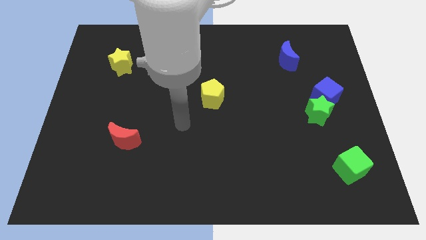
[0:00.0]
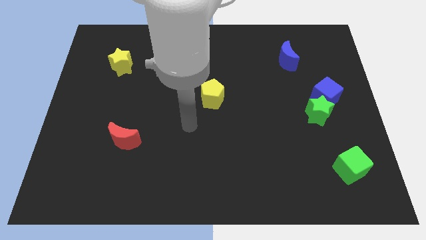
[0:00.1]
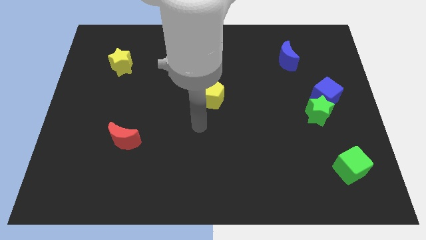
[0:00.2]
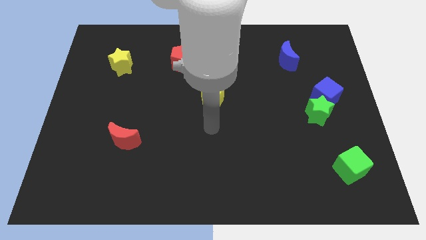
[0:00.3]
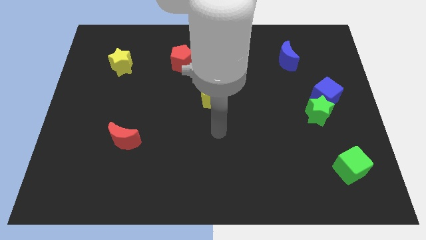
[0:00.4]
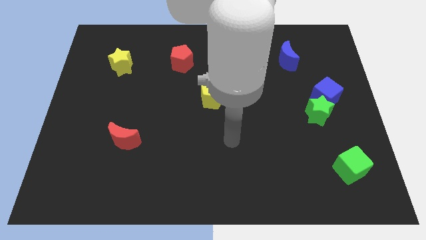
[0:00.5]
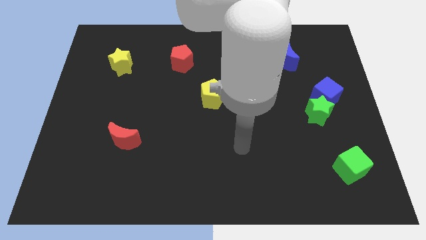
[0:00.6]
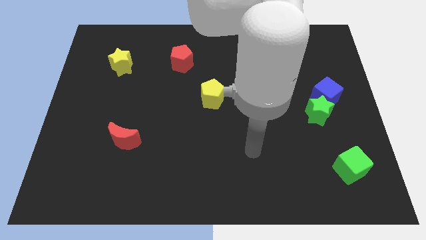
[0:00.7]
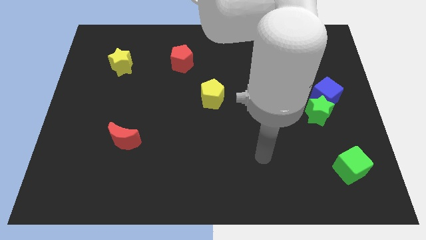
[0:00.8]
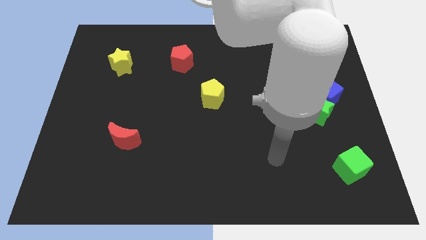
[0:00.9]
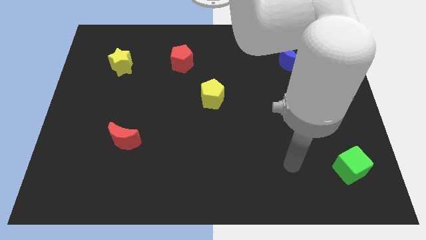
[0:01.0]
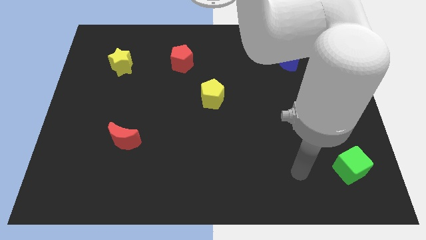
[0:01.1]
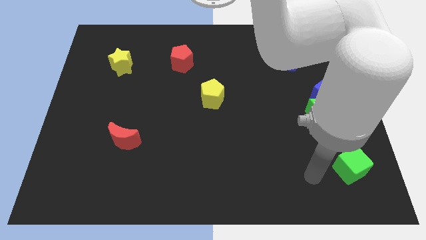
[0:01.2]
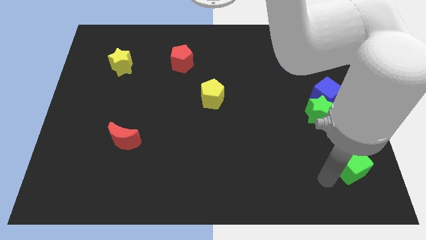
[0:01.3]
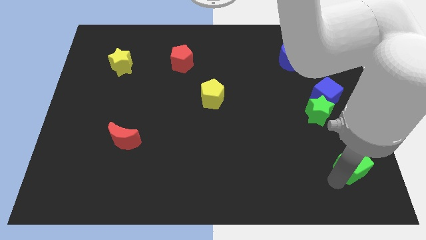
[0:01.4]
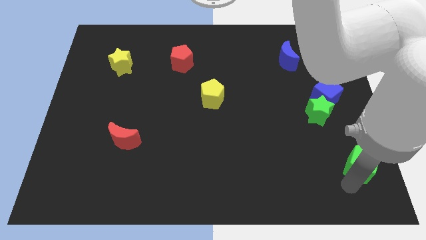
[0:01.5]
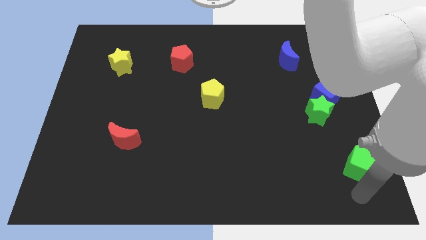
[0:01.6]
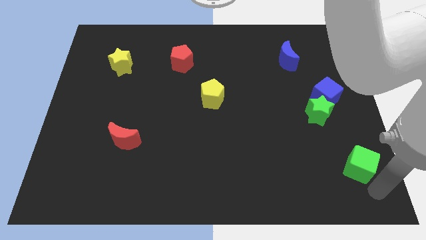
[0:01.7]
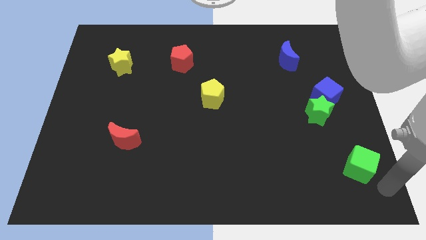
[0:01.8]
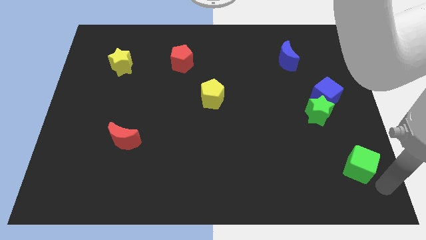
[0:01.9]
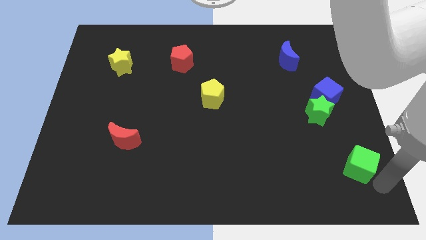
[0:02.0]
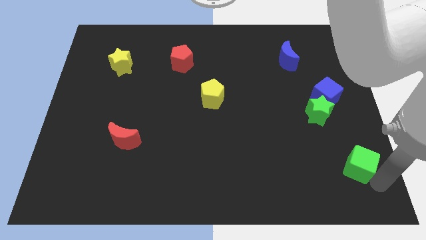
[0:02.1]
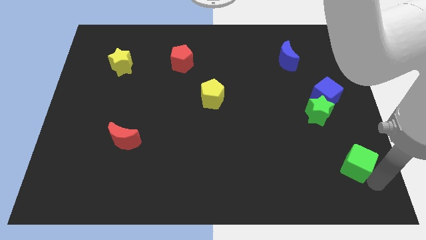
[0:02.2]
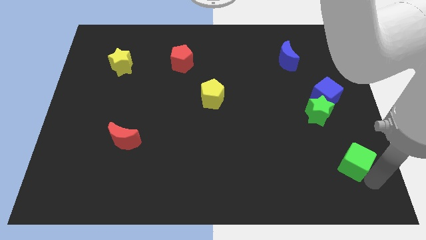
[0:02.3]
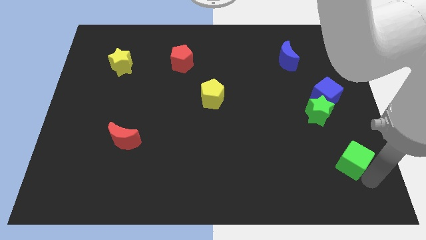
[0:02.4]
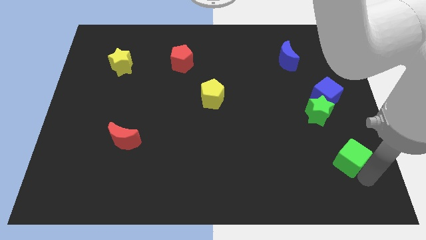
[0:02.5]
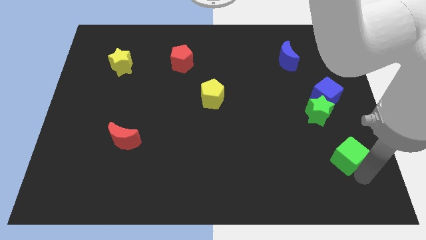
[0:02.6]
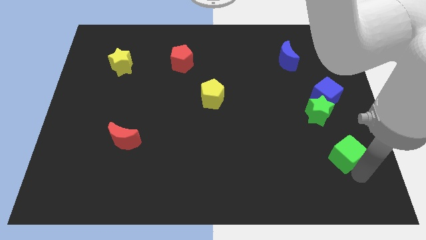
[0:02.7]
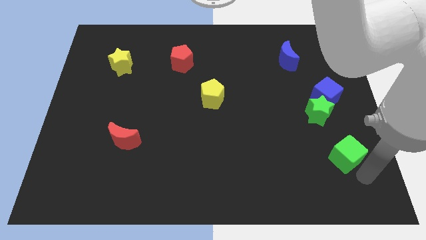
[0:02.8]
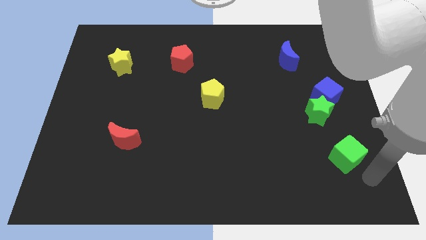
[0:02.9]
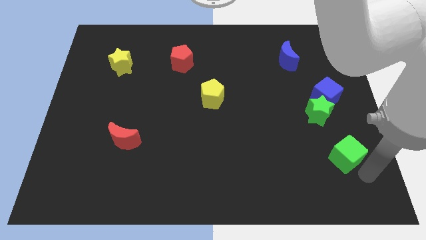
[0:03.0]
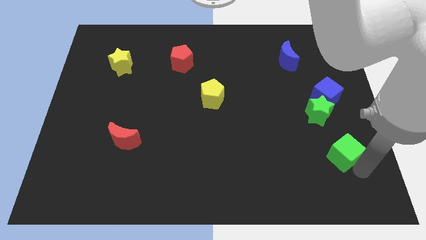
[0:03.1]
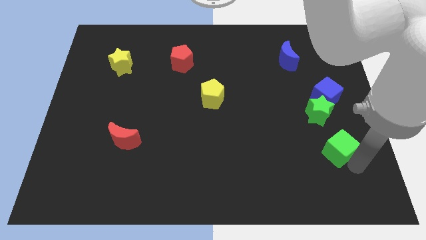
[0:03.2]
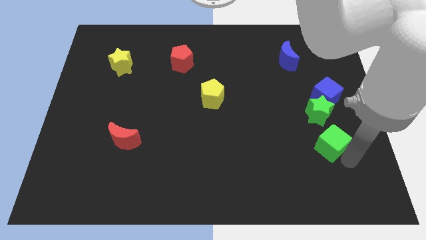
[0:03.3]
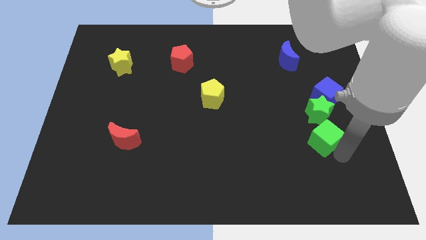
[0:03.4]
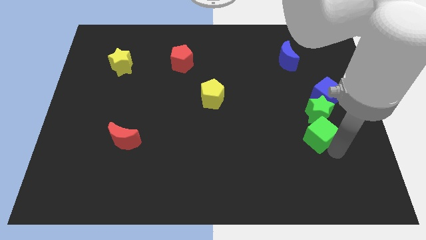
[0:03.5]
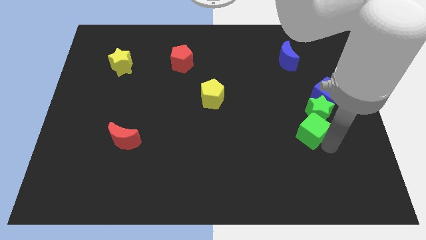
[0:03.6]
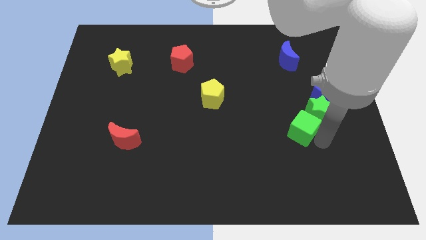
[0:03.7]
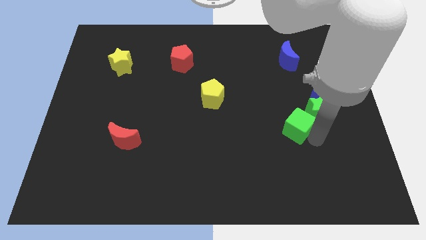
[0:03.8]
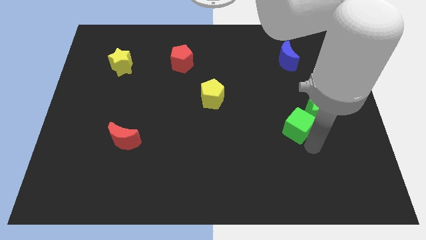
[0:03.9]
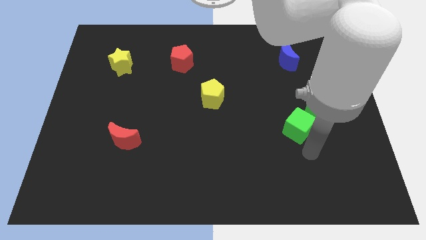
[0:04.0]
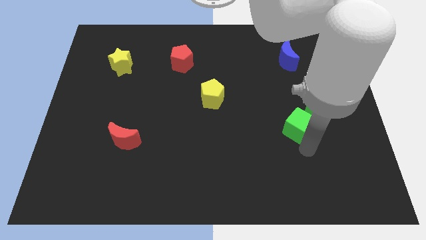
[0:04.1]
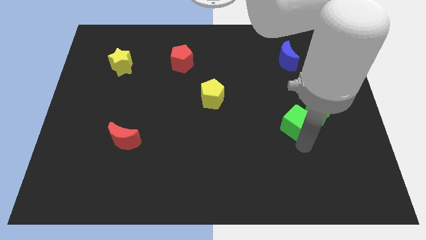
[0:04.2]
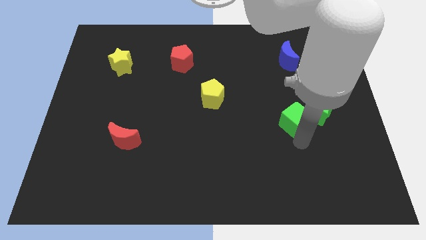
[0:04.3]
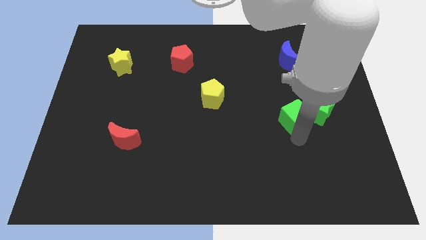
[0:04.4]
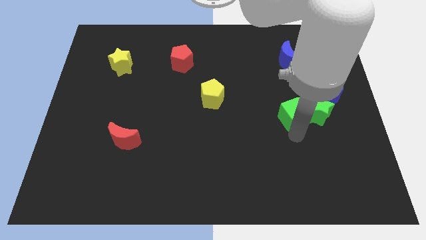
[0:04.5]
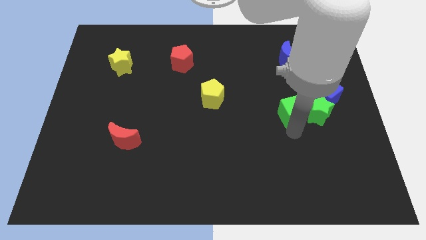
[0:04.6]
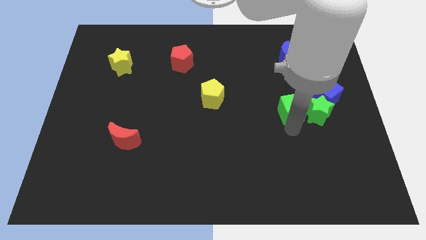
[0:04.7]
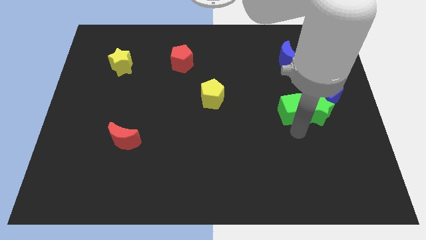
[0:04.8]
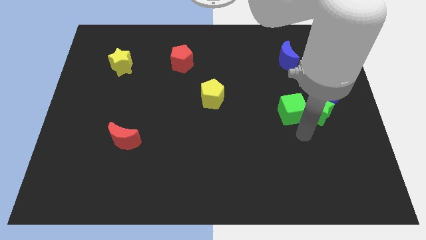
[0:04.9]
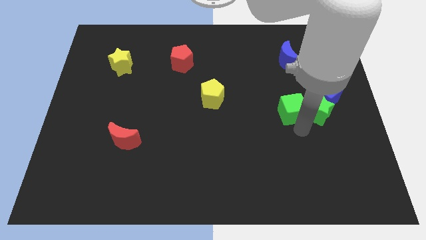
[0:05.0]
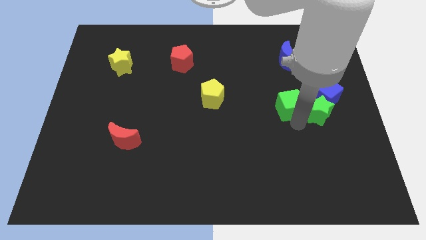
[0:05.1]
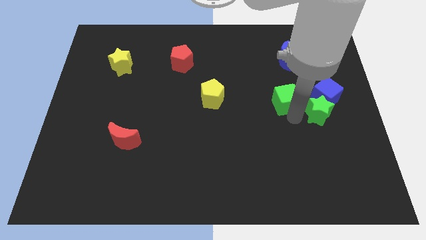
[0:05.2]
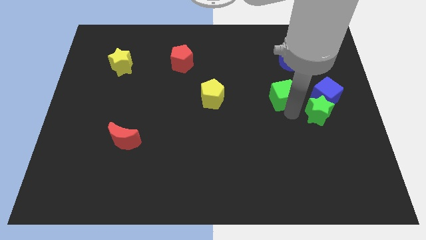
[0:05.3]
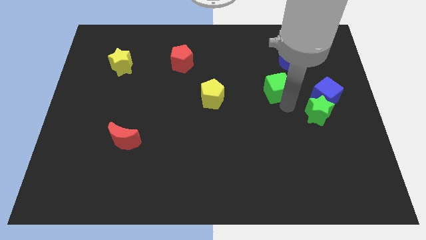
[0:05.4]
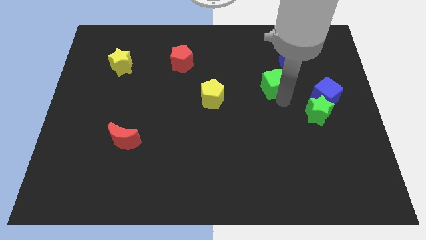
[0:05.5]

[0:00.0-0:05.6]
move the green cube to the bottom left side of the blue moon
